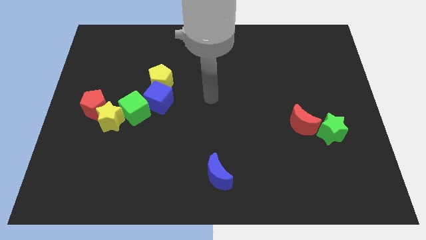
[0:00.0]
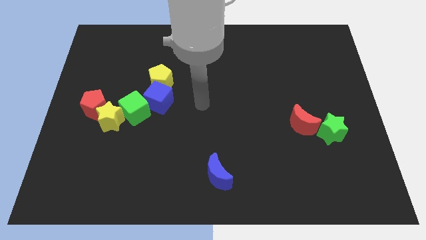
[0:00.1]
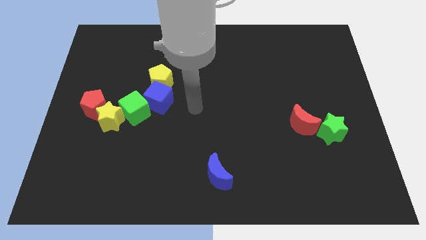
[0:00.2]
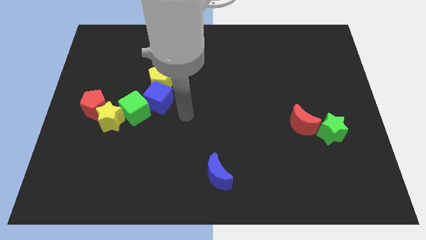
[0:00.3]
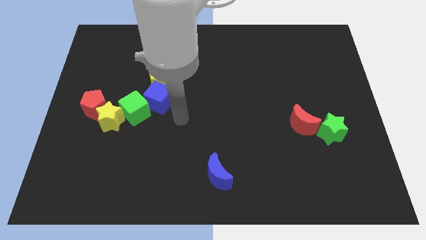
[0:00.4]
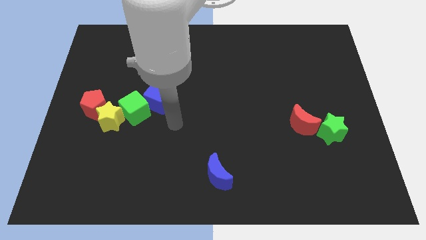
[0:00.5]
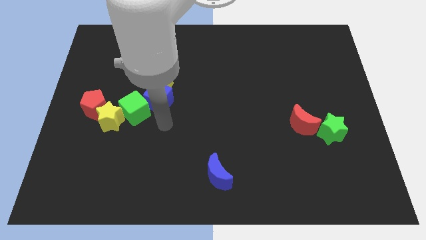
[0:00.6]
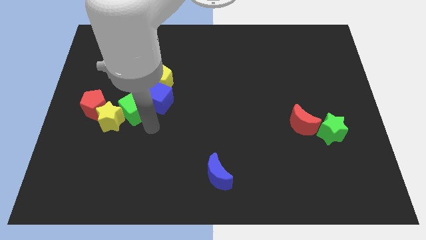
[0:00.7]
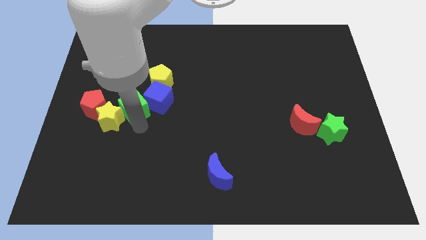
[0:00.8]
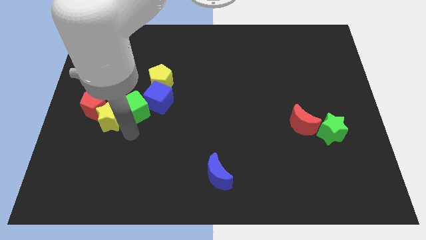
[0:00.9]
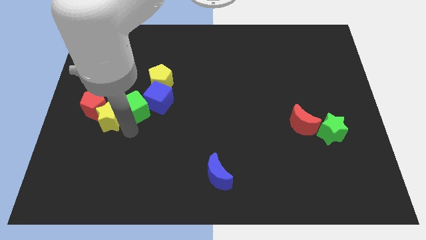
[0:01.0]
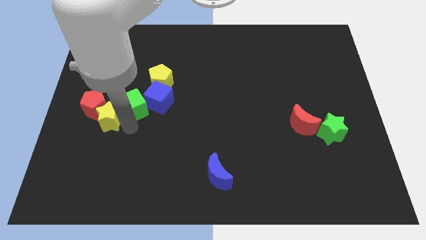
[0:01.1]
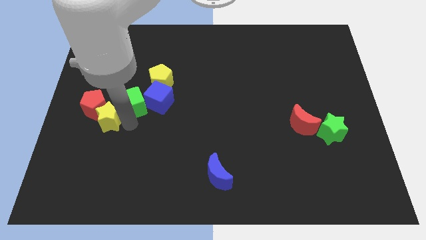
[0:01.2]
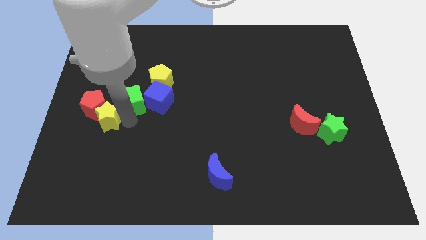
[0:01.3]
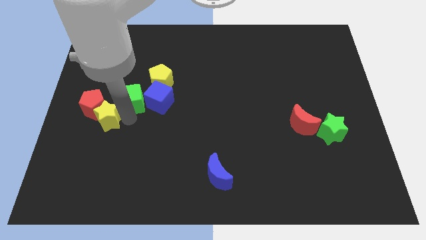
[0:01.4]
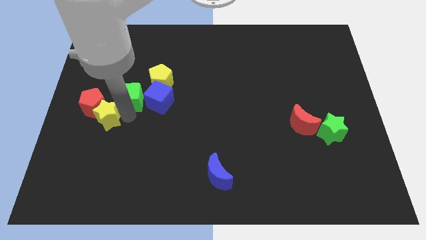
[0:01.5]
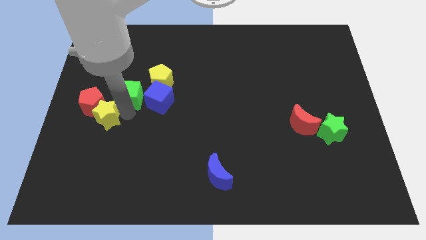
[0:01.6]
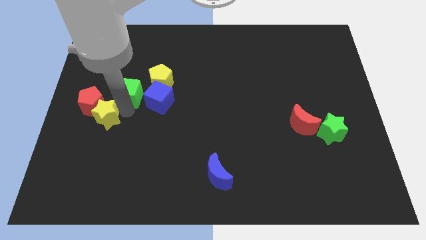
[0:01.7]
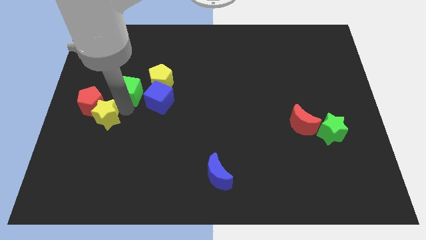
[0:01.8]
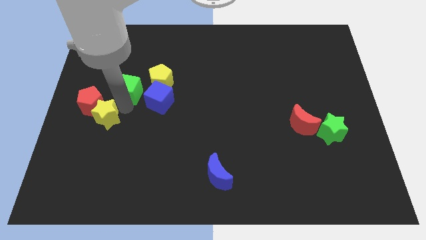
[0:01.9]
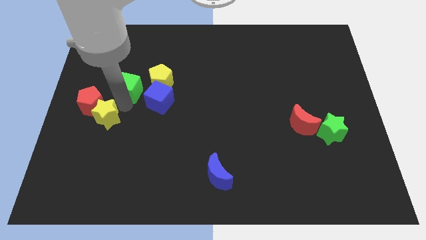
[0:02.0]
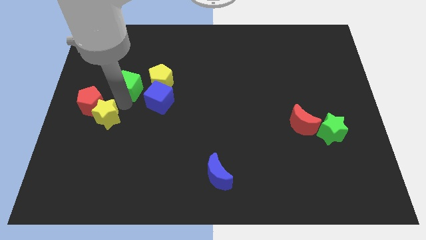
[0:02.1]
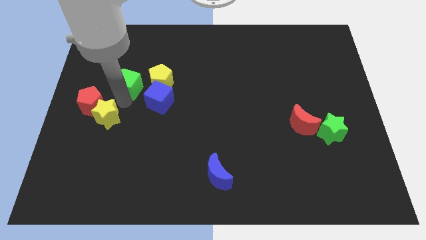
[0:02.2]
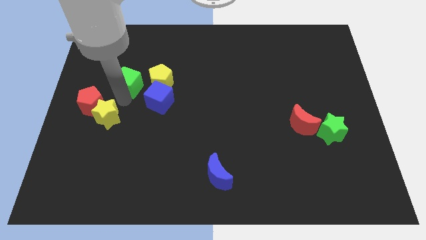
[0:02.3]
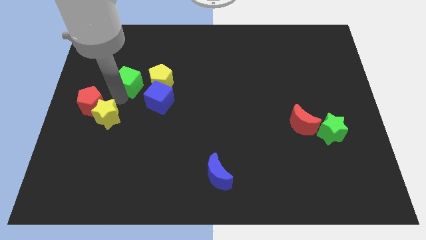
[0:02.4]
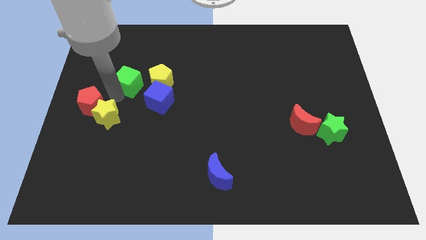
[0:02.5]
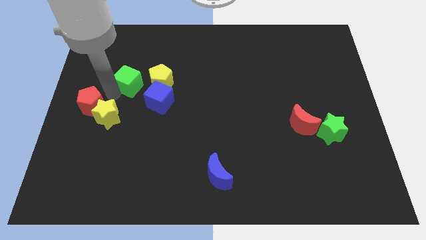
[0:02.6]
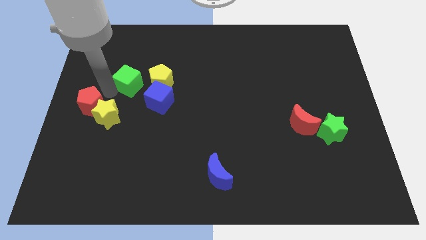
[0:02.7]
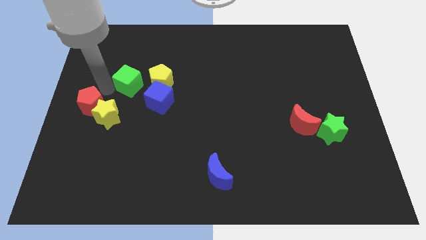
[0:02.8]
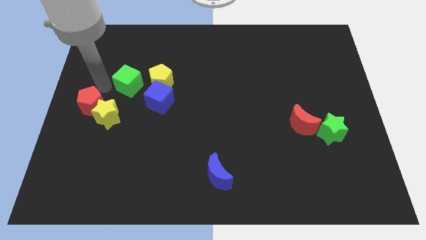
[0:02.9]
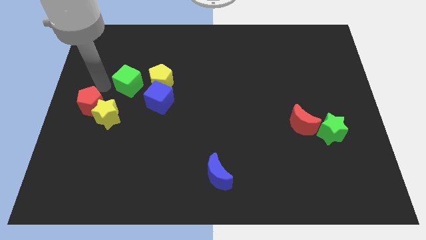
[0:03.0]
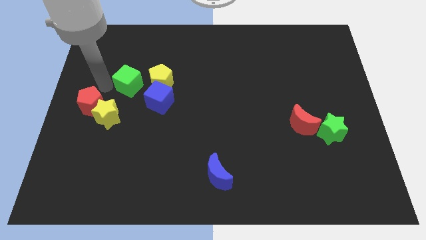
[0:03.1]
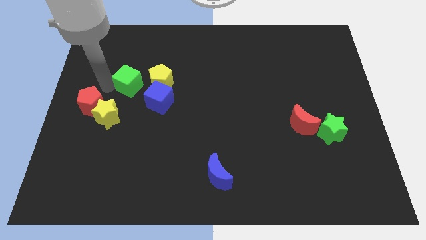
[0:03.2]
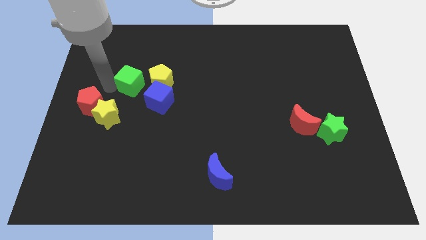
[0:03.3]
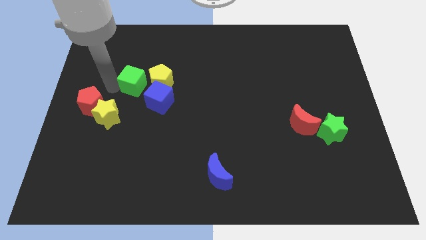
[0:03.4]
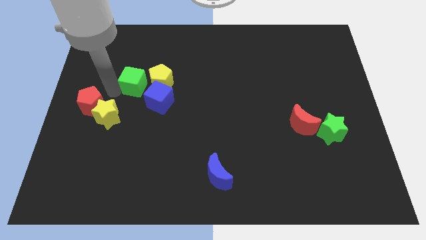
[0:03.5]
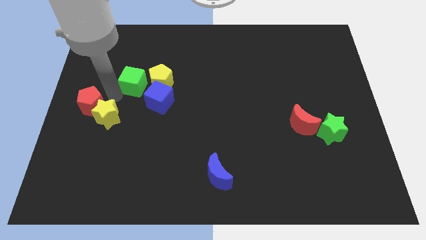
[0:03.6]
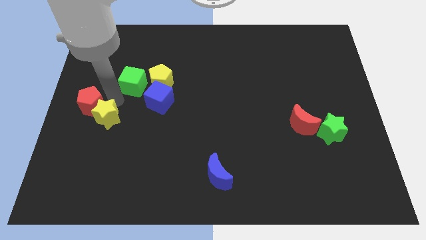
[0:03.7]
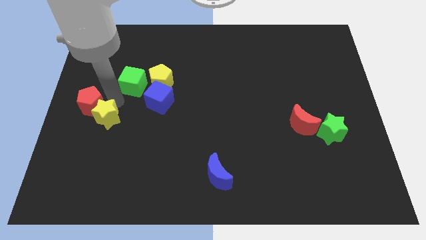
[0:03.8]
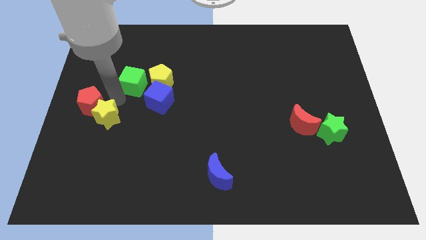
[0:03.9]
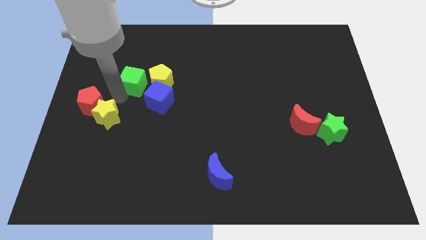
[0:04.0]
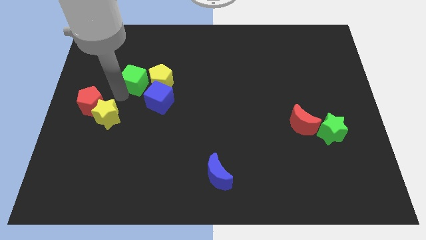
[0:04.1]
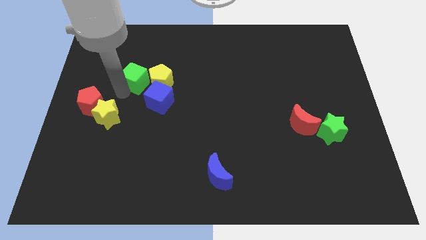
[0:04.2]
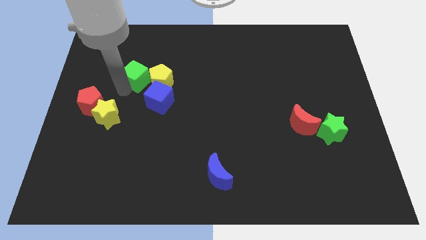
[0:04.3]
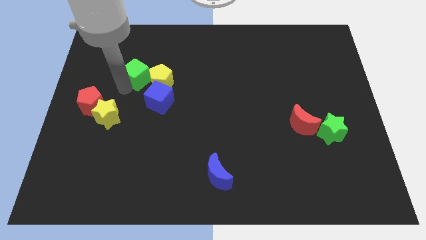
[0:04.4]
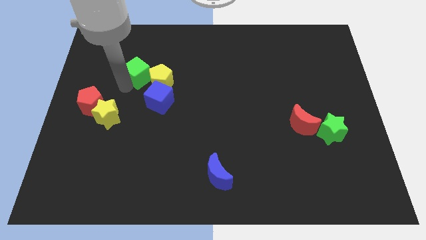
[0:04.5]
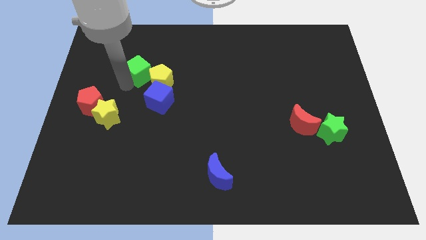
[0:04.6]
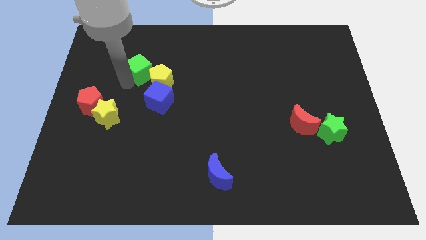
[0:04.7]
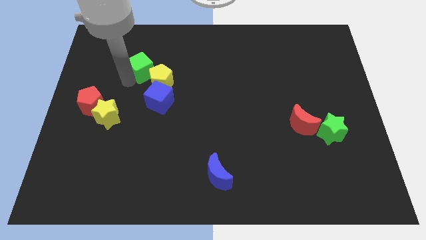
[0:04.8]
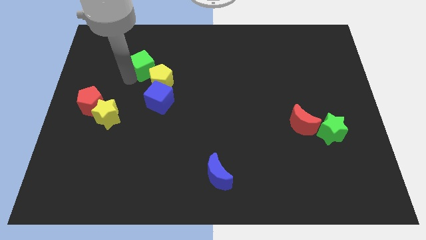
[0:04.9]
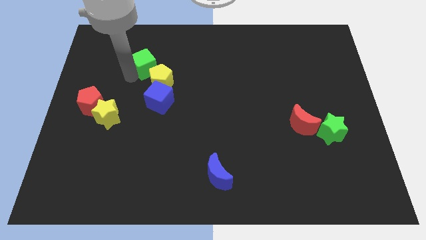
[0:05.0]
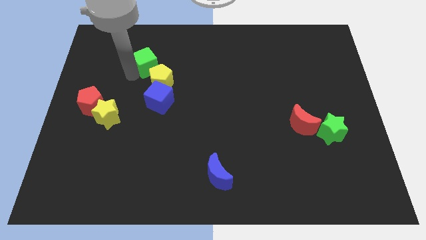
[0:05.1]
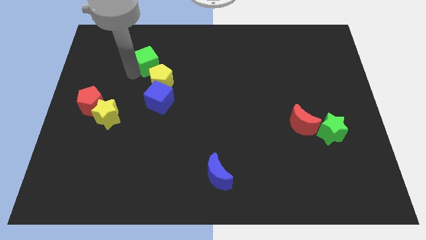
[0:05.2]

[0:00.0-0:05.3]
move the green cube a bit upwards and right

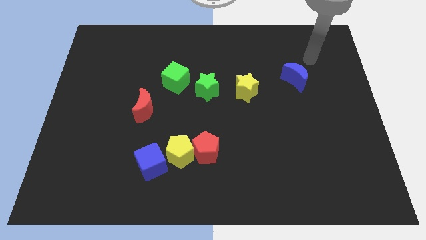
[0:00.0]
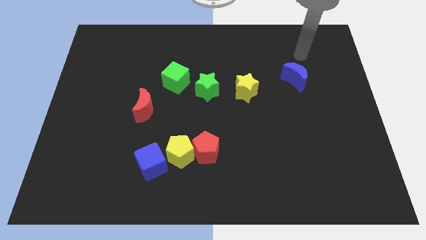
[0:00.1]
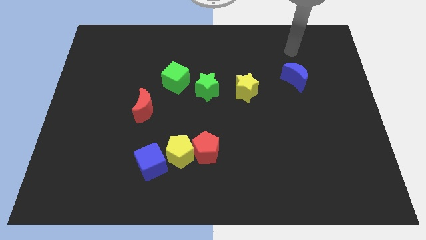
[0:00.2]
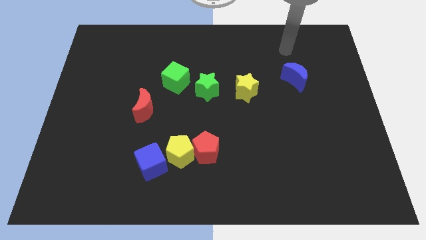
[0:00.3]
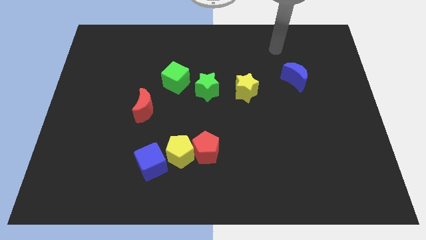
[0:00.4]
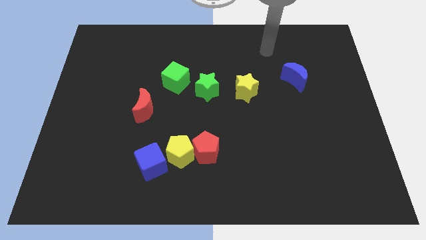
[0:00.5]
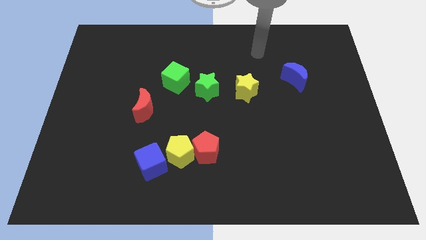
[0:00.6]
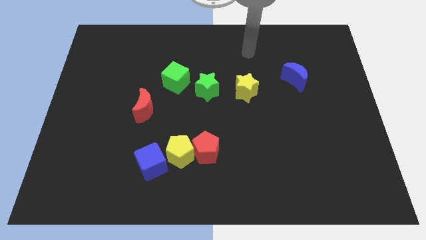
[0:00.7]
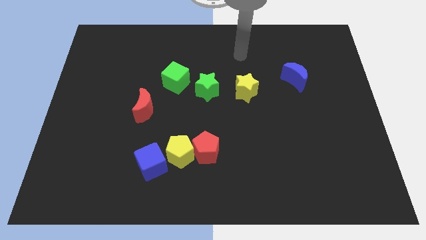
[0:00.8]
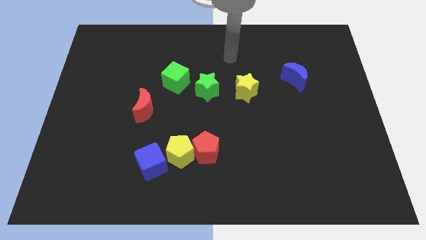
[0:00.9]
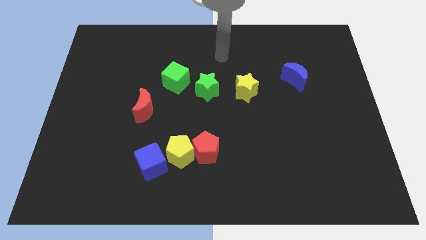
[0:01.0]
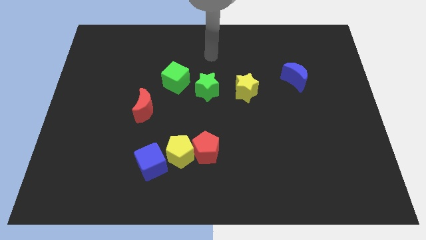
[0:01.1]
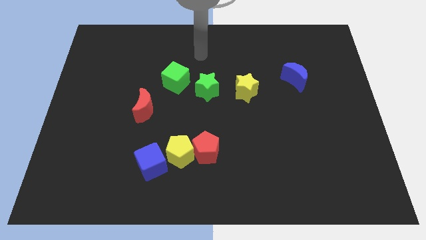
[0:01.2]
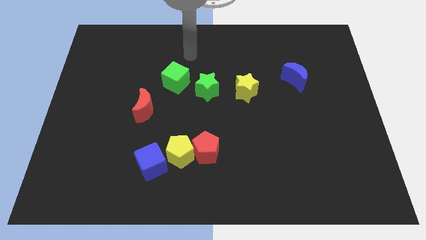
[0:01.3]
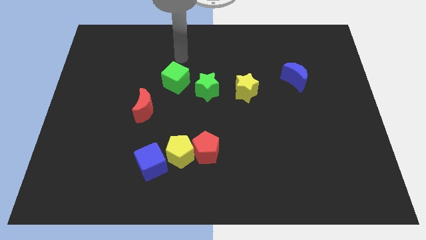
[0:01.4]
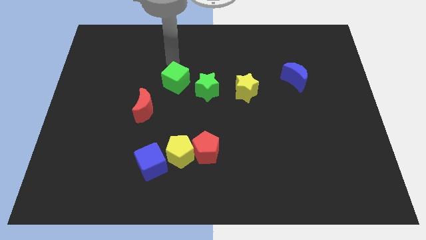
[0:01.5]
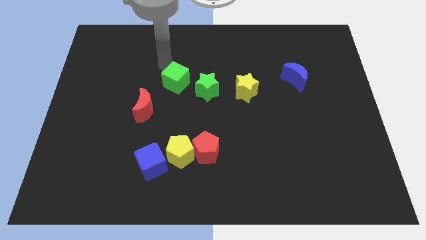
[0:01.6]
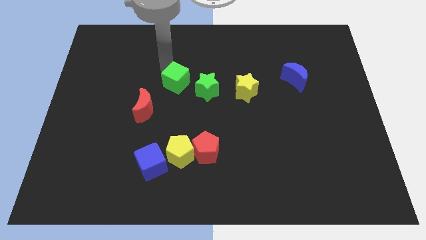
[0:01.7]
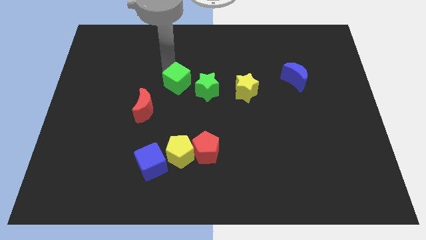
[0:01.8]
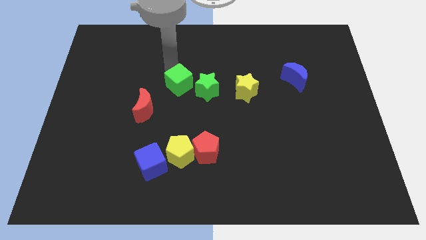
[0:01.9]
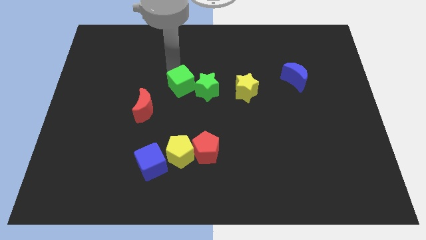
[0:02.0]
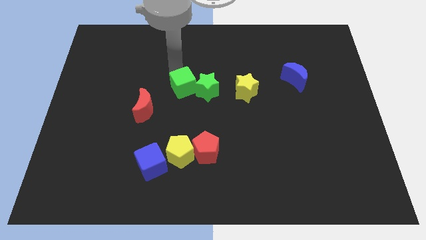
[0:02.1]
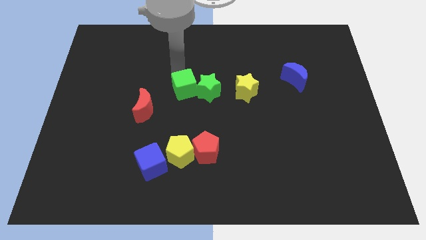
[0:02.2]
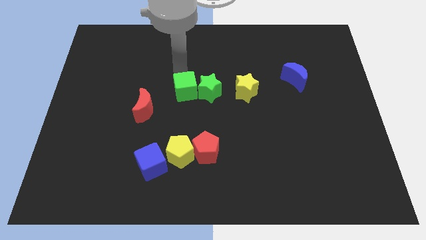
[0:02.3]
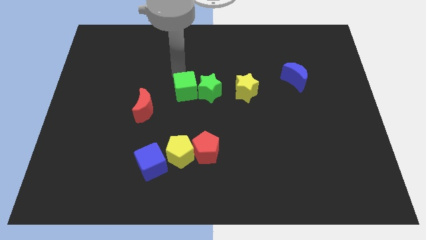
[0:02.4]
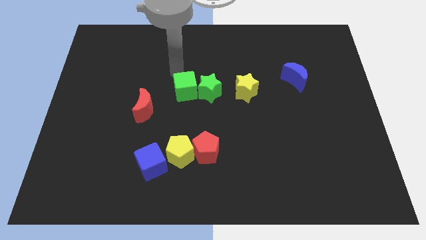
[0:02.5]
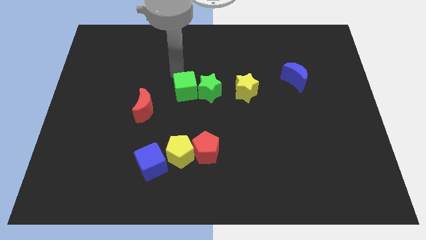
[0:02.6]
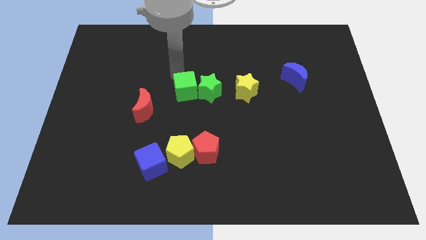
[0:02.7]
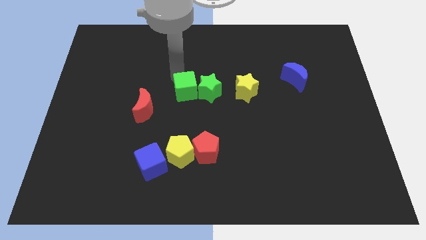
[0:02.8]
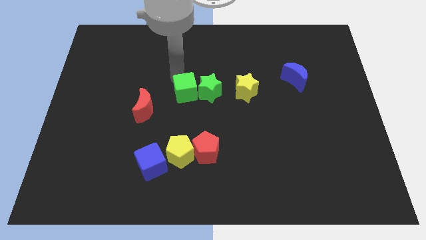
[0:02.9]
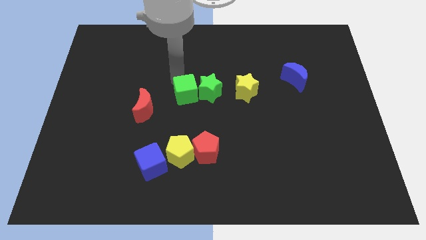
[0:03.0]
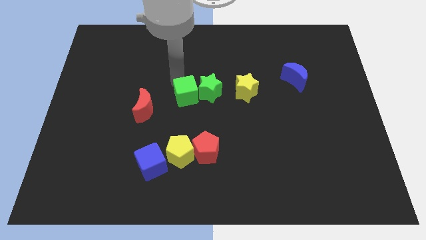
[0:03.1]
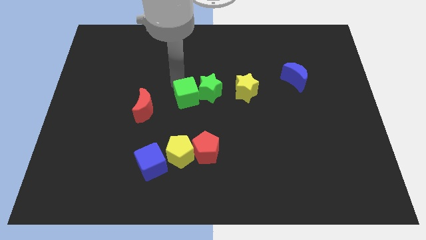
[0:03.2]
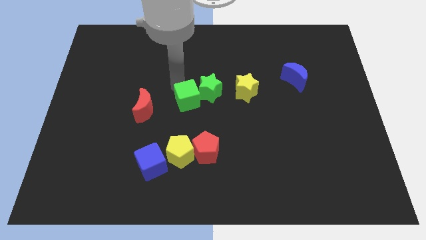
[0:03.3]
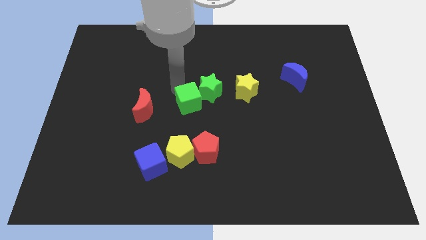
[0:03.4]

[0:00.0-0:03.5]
slightly slide the green cube downwards and right
